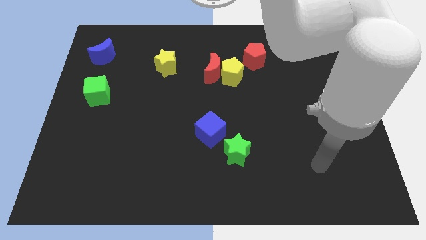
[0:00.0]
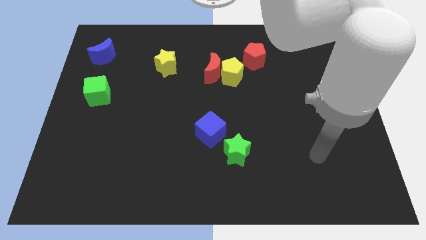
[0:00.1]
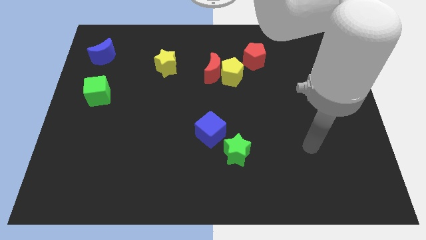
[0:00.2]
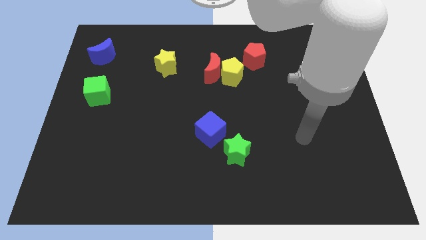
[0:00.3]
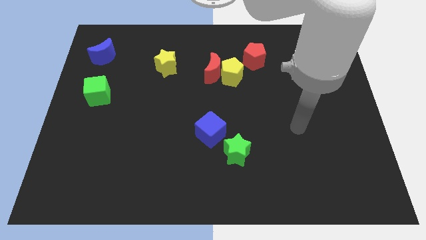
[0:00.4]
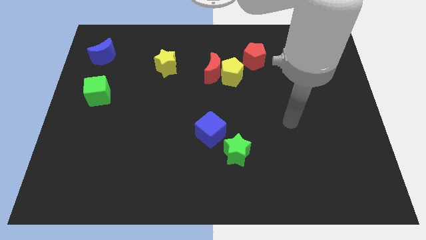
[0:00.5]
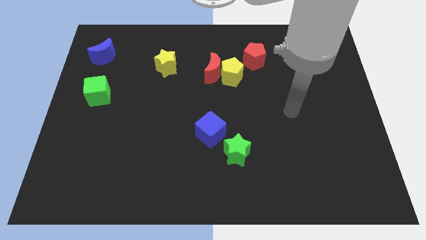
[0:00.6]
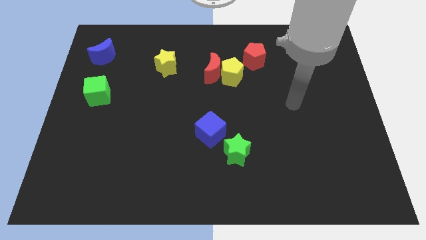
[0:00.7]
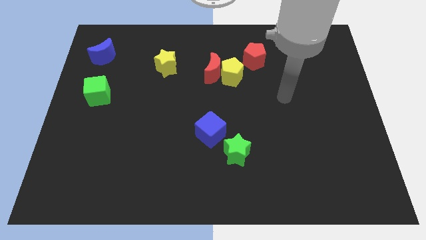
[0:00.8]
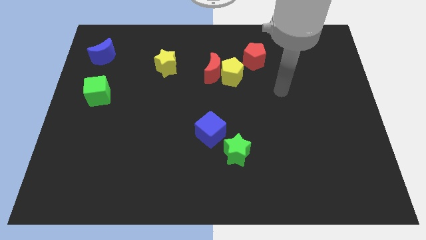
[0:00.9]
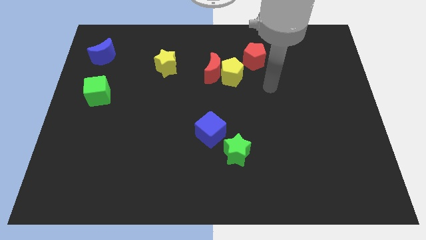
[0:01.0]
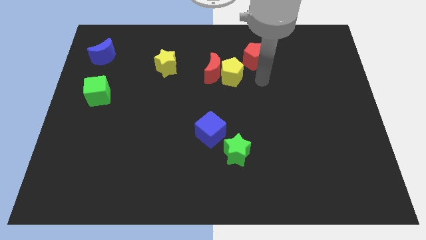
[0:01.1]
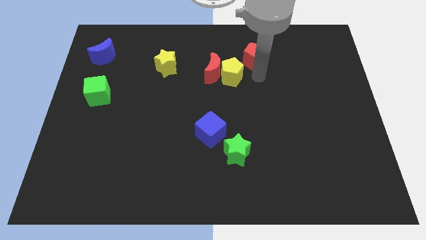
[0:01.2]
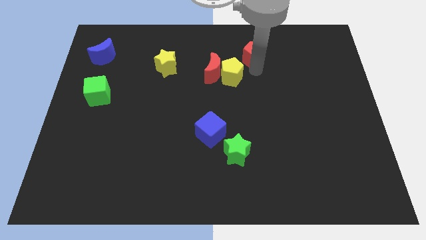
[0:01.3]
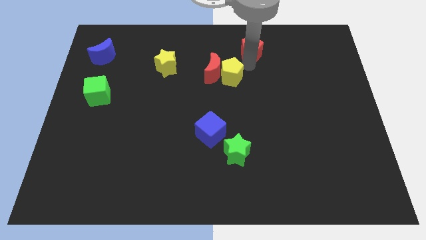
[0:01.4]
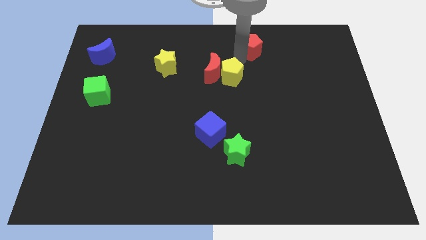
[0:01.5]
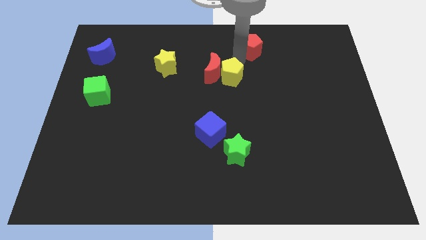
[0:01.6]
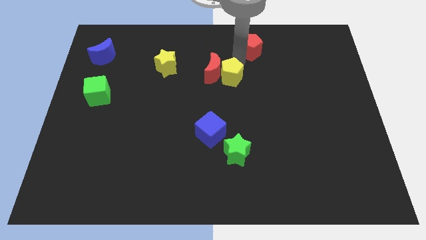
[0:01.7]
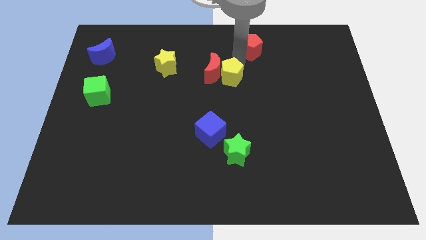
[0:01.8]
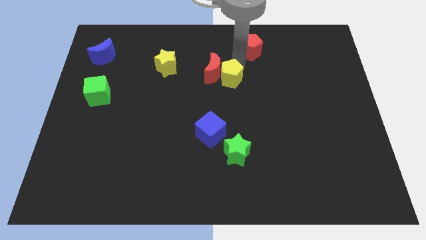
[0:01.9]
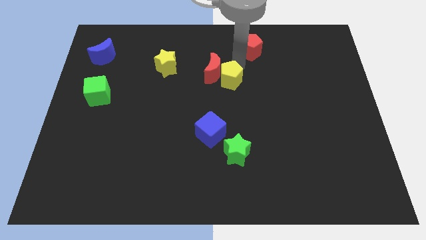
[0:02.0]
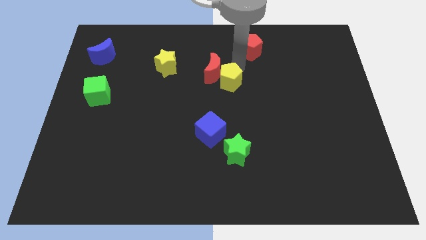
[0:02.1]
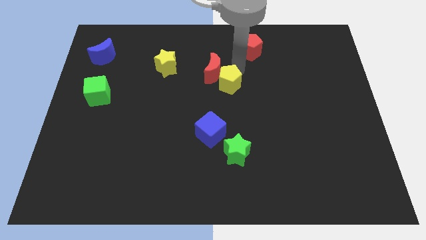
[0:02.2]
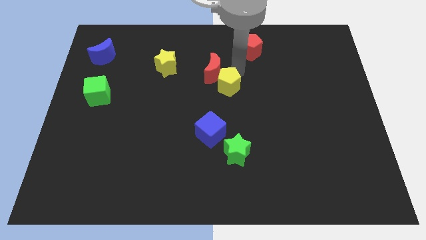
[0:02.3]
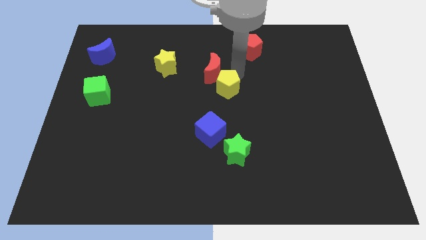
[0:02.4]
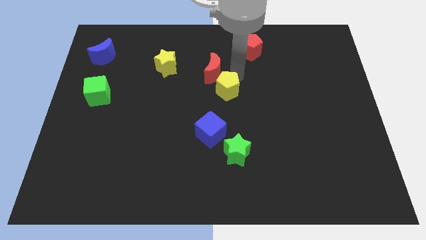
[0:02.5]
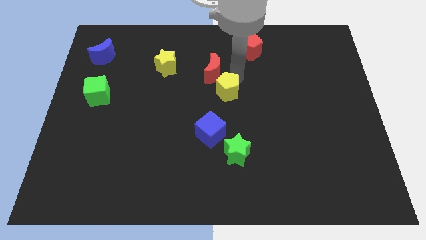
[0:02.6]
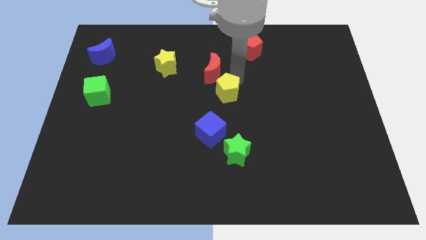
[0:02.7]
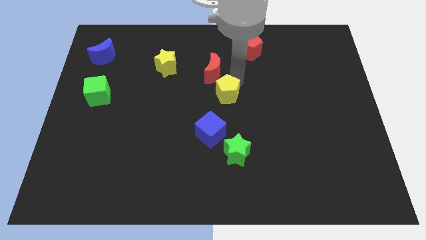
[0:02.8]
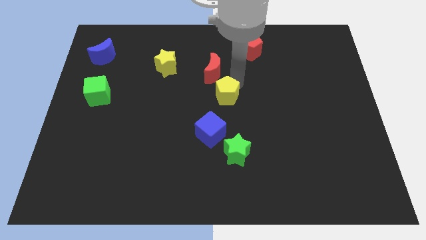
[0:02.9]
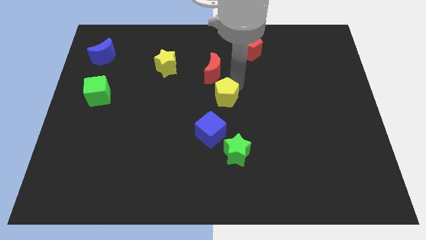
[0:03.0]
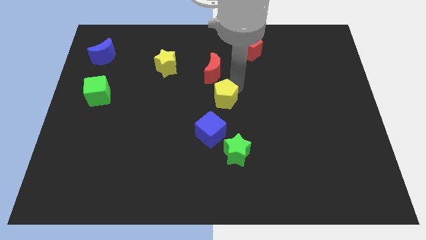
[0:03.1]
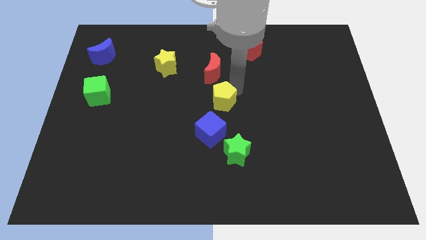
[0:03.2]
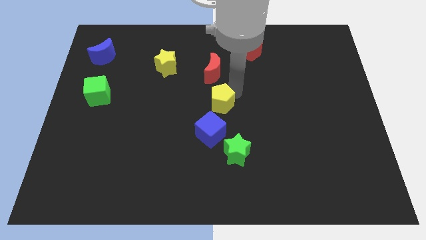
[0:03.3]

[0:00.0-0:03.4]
slide the yellow pentagon a little bit diagonally downwards and to the left

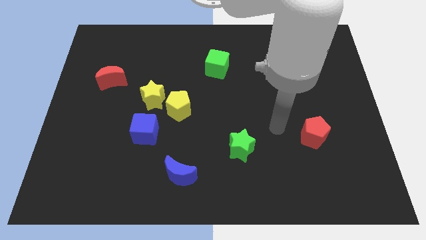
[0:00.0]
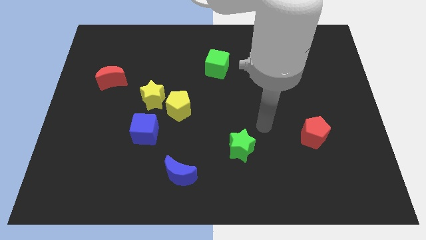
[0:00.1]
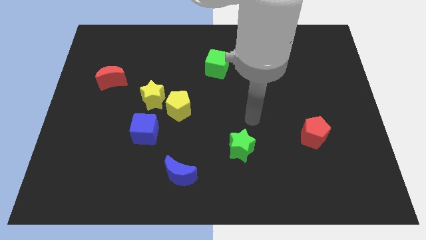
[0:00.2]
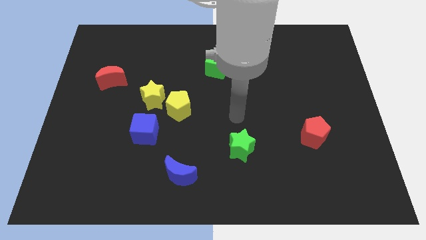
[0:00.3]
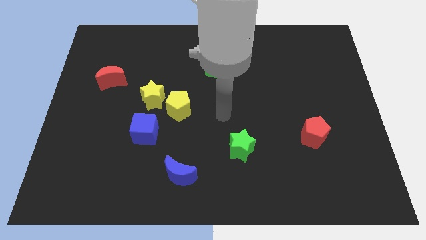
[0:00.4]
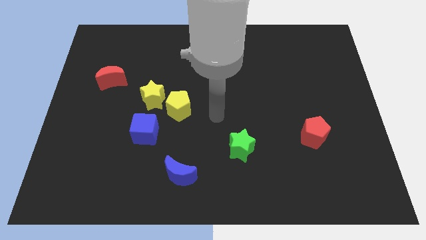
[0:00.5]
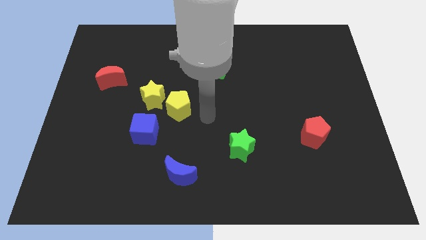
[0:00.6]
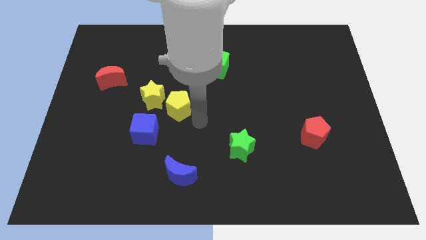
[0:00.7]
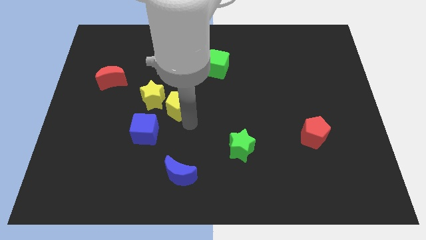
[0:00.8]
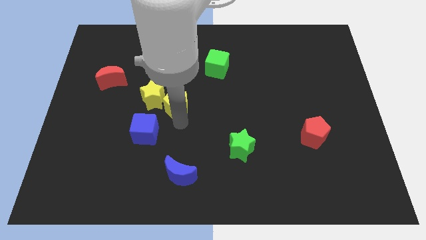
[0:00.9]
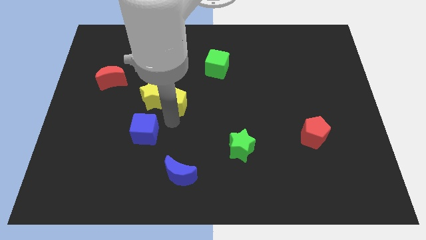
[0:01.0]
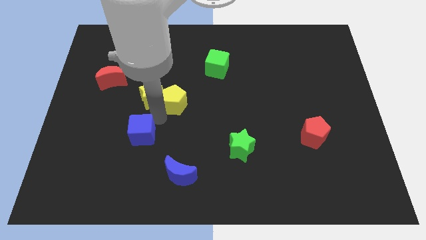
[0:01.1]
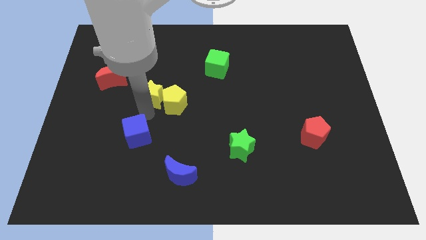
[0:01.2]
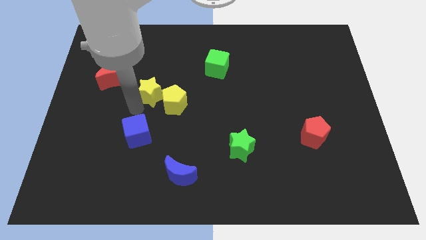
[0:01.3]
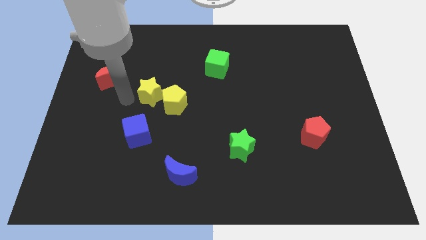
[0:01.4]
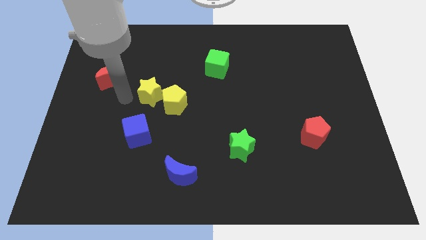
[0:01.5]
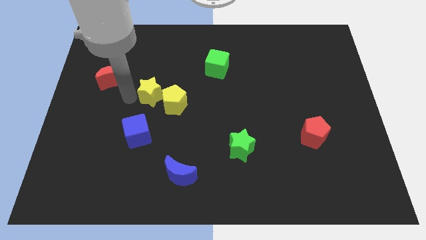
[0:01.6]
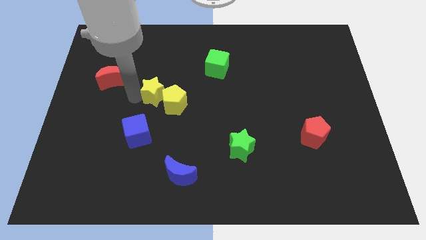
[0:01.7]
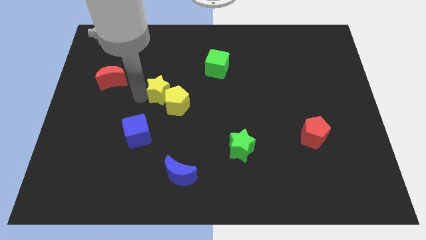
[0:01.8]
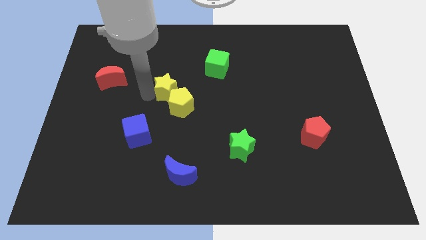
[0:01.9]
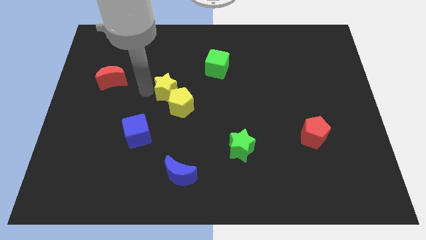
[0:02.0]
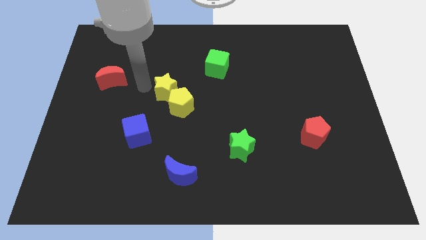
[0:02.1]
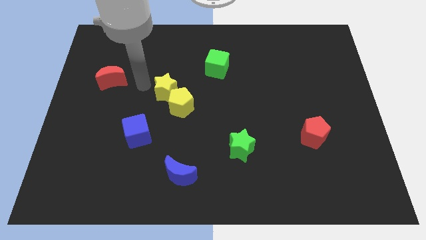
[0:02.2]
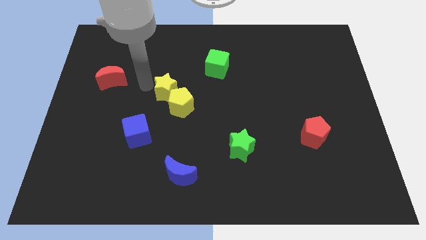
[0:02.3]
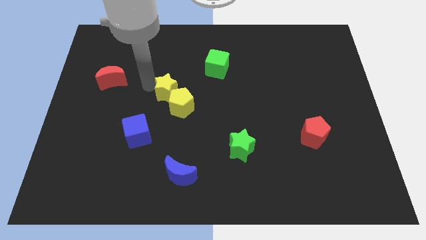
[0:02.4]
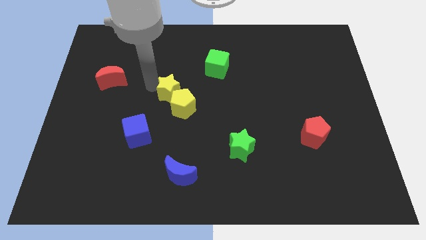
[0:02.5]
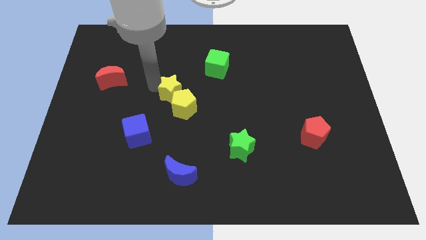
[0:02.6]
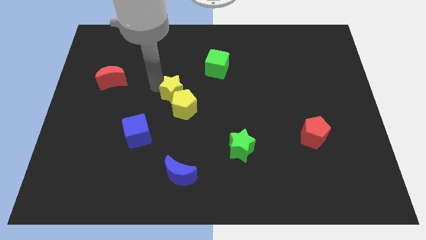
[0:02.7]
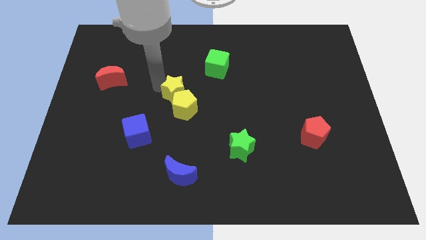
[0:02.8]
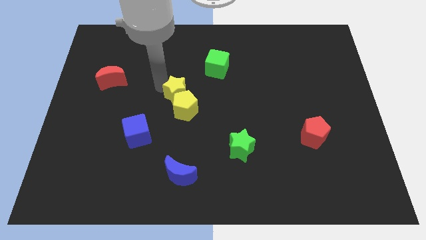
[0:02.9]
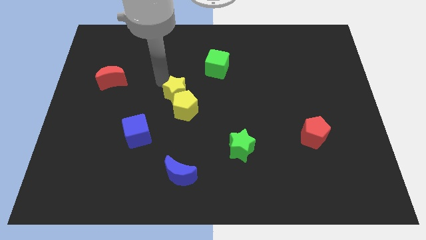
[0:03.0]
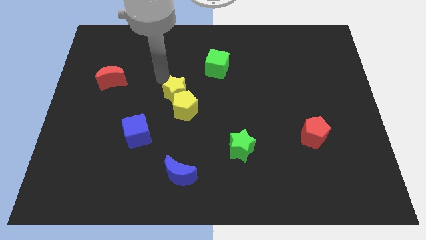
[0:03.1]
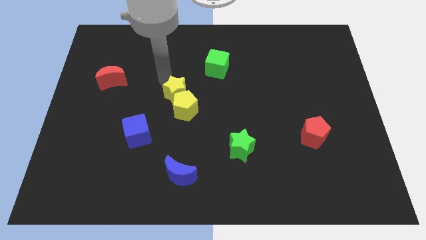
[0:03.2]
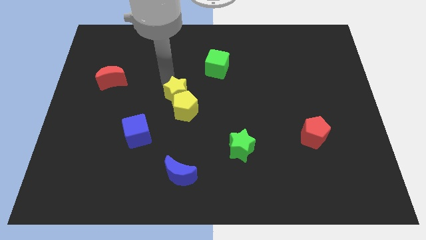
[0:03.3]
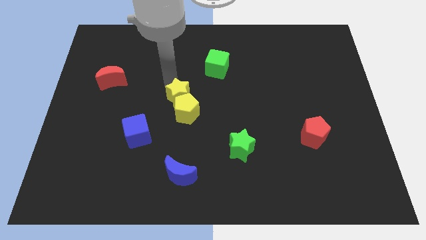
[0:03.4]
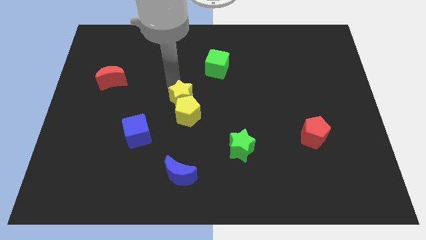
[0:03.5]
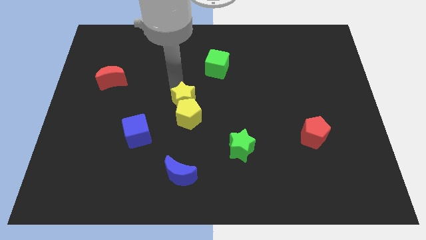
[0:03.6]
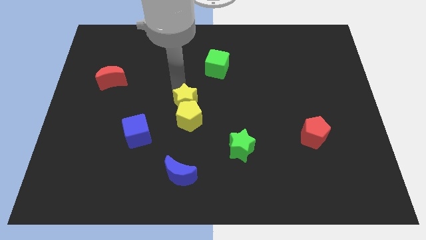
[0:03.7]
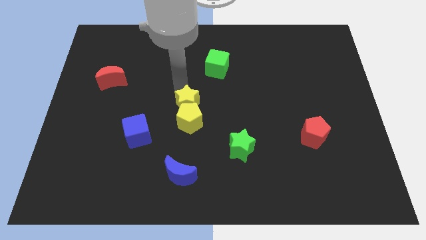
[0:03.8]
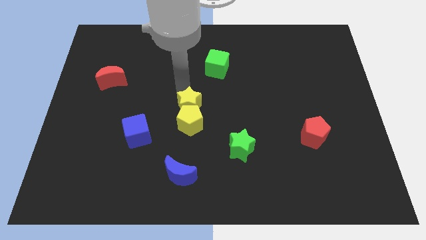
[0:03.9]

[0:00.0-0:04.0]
slide the yellow star down and then to the right somewhat

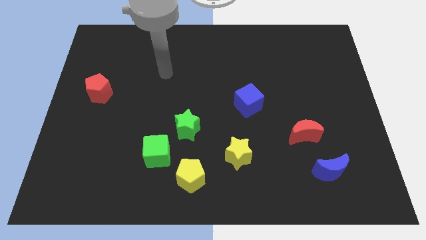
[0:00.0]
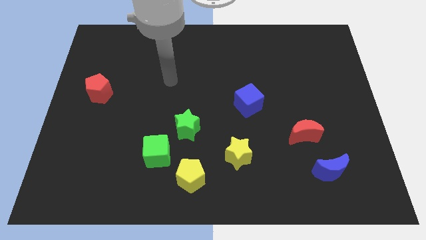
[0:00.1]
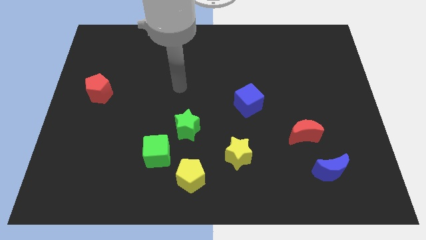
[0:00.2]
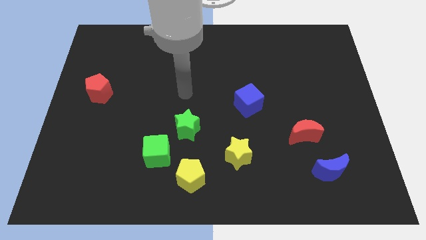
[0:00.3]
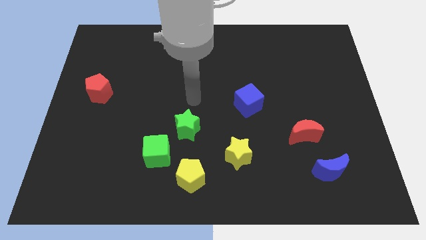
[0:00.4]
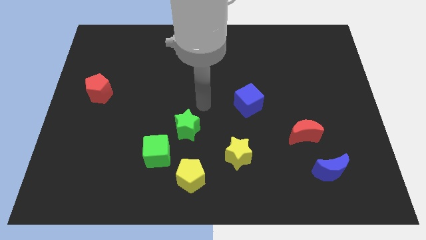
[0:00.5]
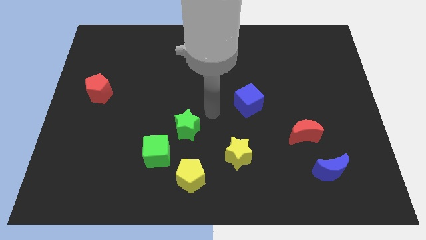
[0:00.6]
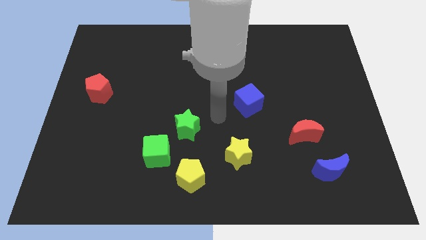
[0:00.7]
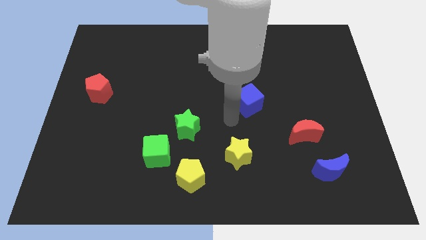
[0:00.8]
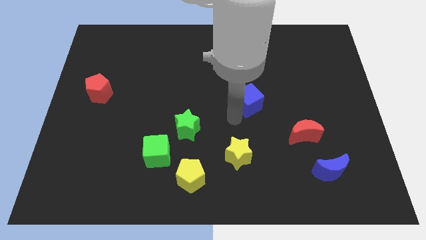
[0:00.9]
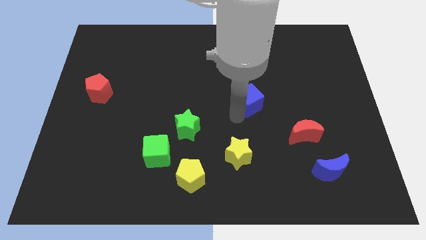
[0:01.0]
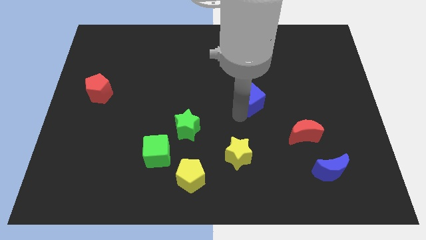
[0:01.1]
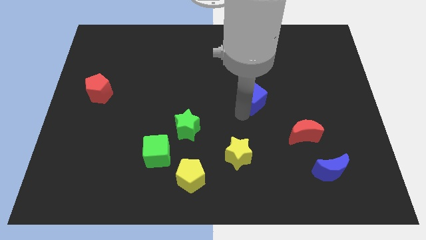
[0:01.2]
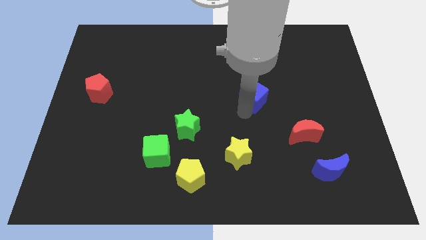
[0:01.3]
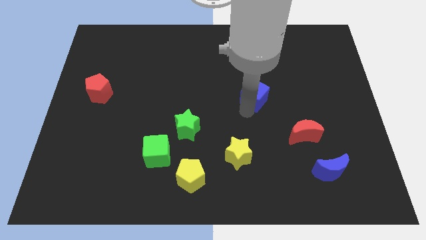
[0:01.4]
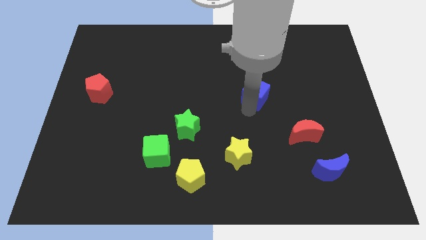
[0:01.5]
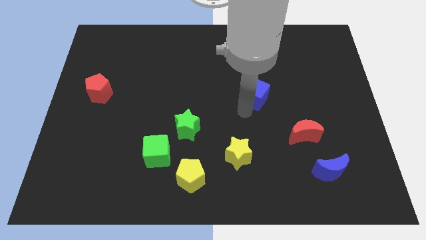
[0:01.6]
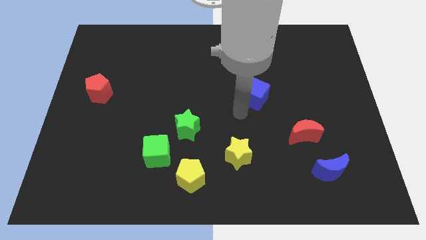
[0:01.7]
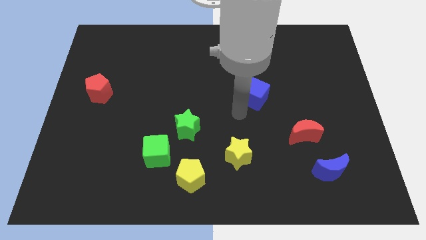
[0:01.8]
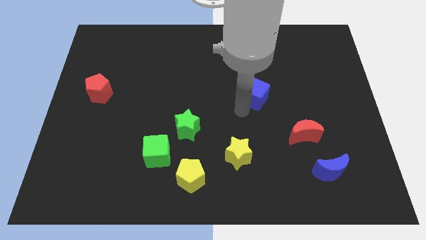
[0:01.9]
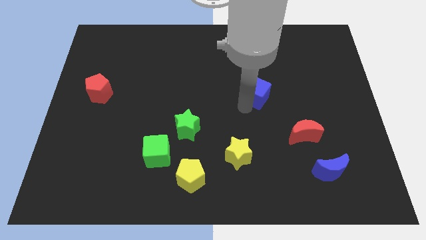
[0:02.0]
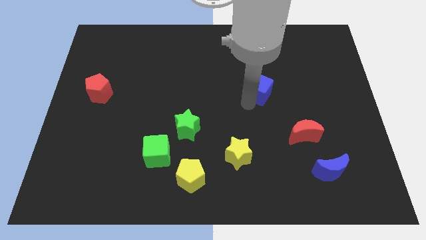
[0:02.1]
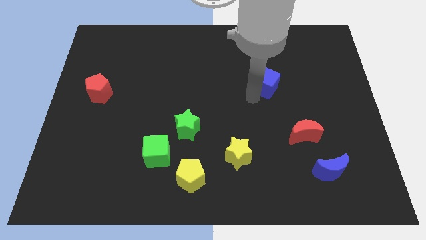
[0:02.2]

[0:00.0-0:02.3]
slide the blue cube somewhat diagonally up and to the right
